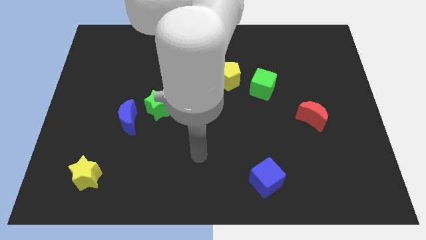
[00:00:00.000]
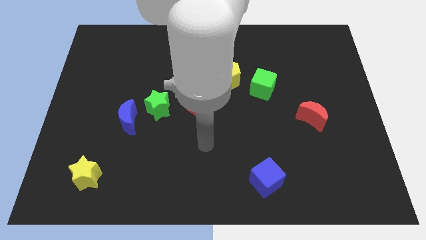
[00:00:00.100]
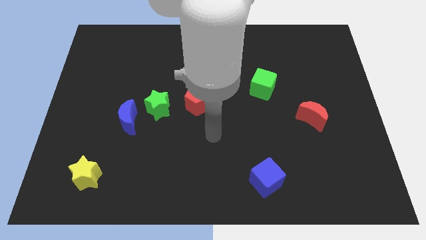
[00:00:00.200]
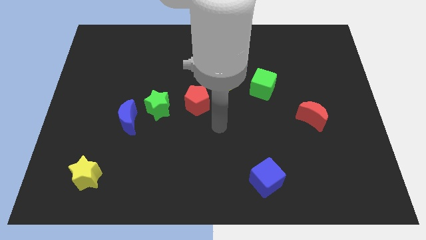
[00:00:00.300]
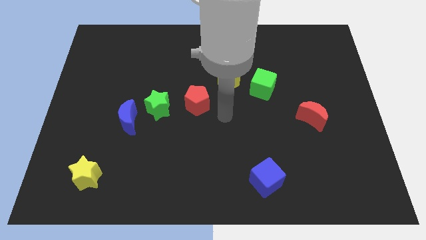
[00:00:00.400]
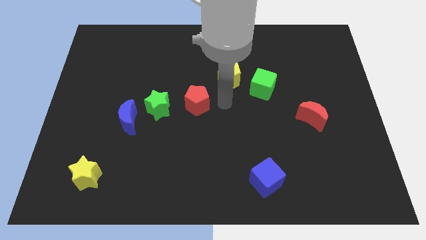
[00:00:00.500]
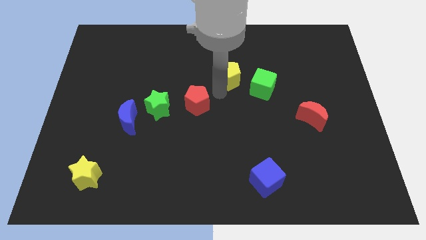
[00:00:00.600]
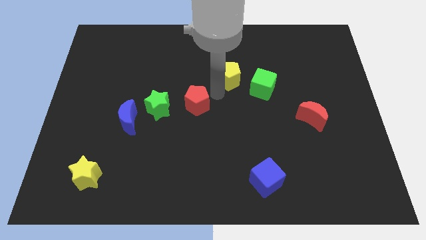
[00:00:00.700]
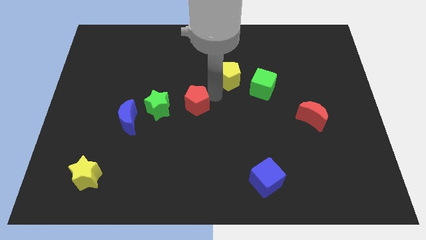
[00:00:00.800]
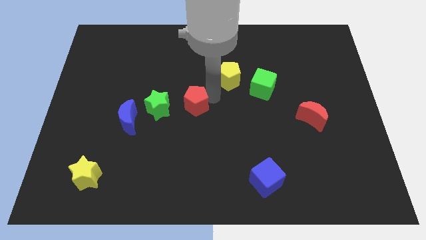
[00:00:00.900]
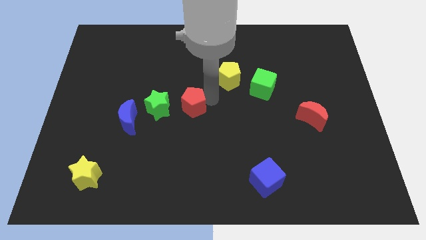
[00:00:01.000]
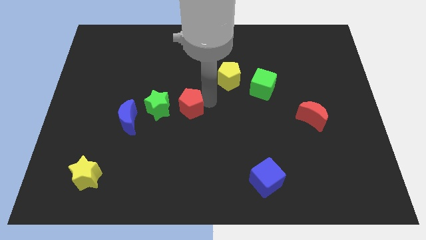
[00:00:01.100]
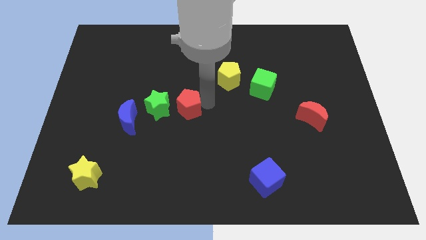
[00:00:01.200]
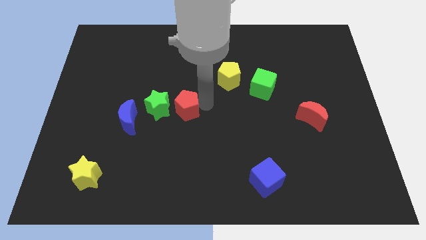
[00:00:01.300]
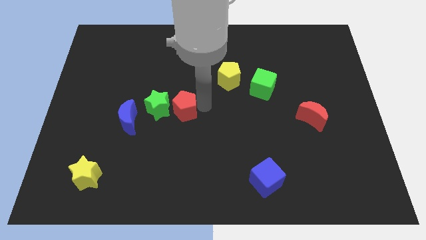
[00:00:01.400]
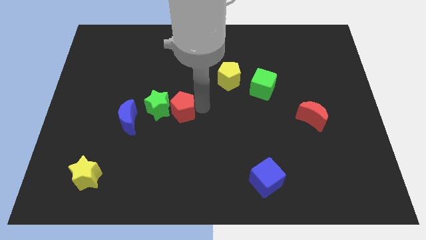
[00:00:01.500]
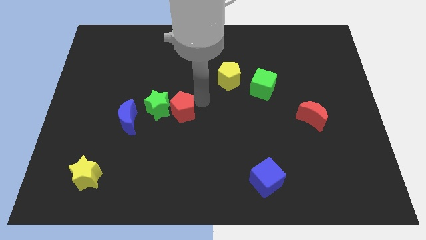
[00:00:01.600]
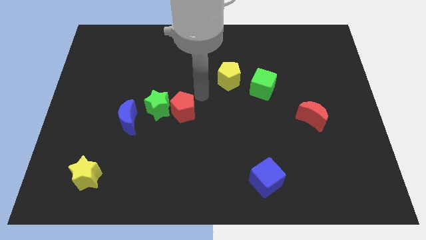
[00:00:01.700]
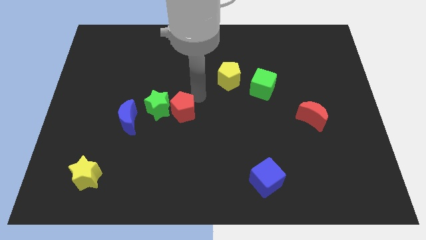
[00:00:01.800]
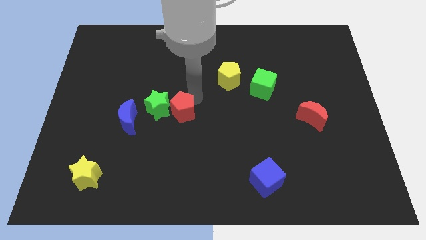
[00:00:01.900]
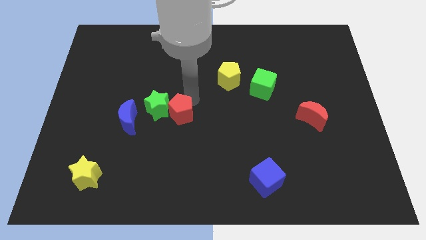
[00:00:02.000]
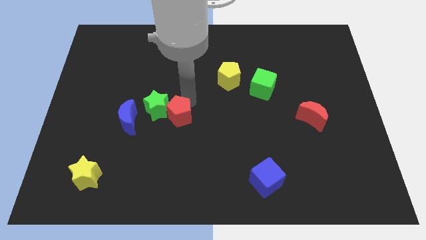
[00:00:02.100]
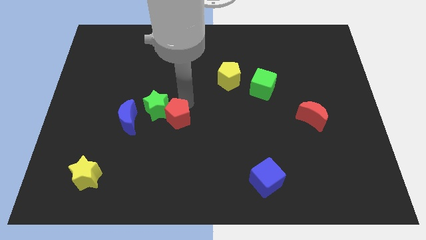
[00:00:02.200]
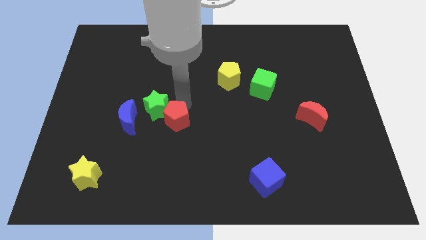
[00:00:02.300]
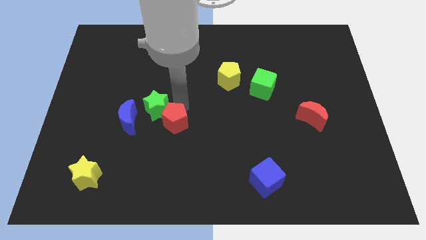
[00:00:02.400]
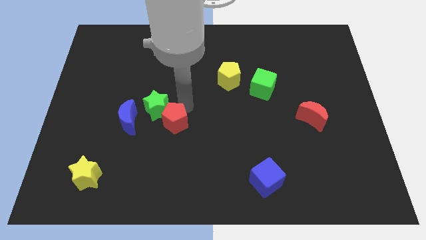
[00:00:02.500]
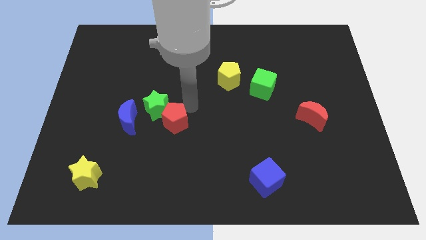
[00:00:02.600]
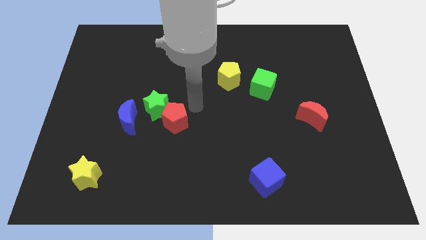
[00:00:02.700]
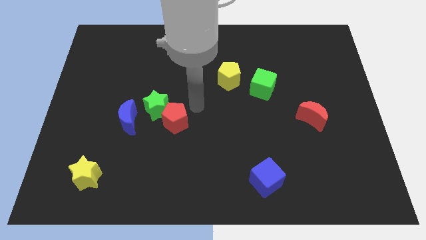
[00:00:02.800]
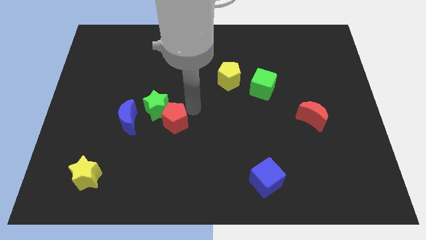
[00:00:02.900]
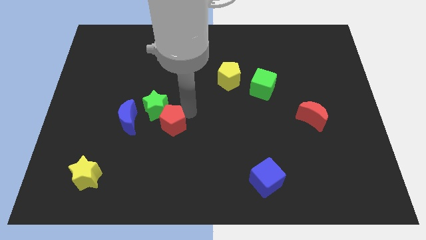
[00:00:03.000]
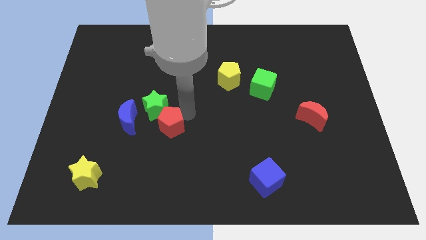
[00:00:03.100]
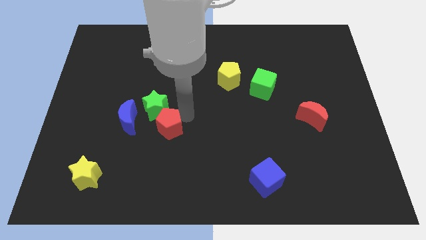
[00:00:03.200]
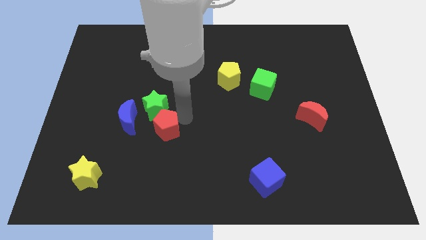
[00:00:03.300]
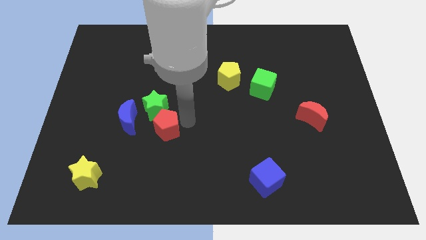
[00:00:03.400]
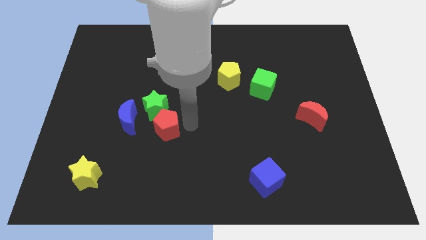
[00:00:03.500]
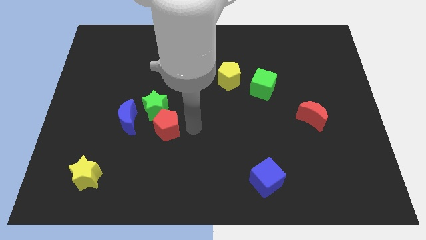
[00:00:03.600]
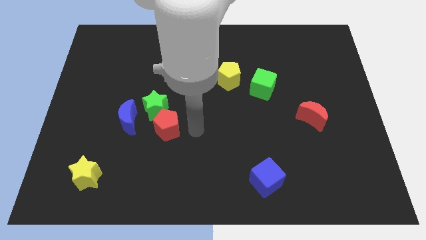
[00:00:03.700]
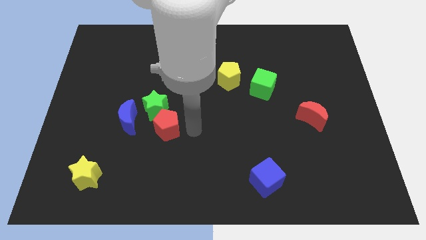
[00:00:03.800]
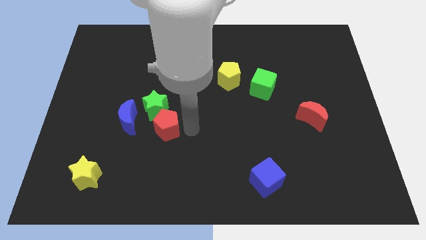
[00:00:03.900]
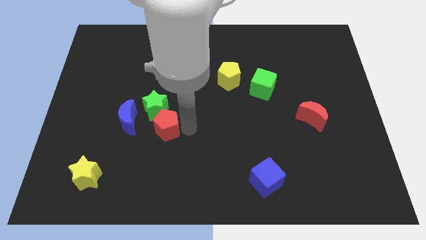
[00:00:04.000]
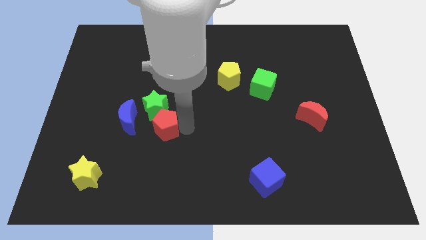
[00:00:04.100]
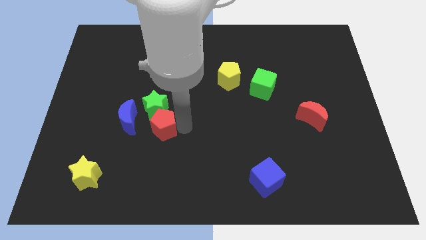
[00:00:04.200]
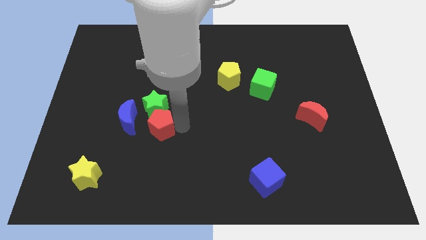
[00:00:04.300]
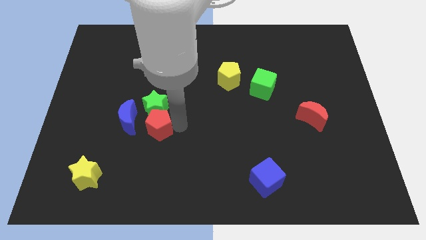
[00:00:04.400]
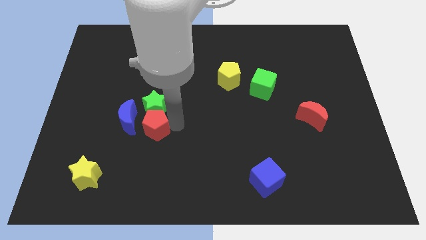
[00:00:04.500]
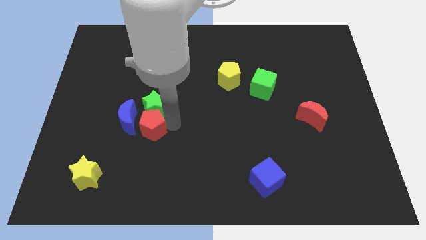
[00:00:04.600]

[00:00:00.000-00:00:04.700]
put the red pentagon to the blue moon

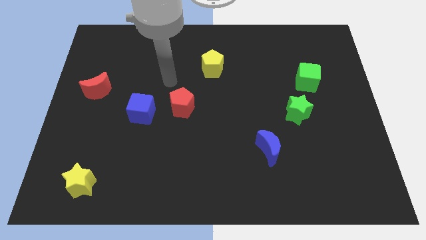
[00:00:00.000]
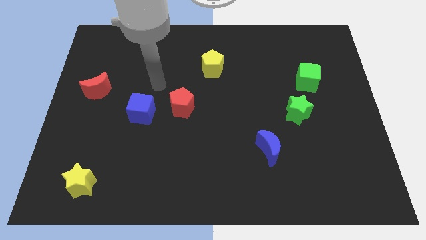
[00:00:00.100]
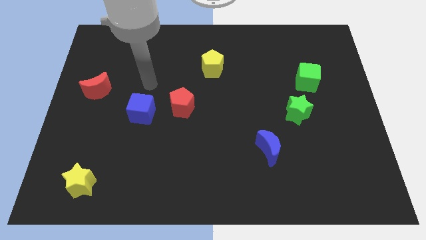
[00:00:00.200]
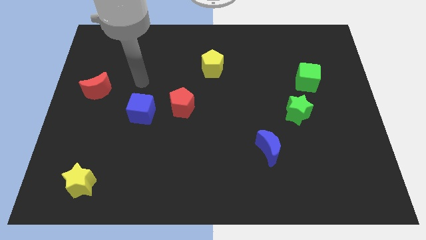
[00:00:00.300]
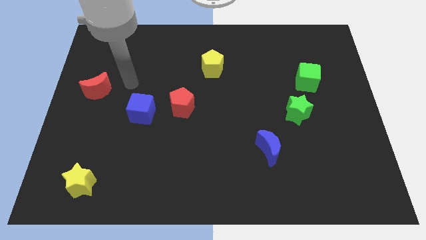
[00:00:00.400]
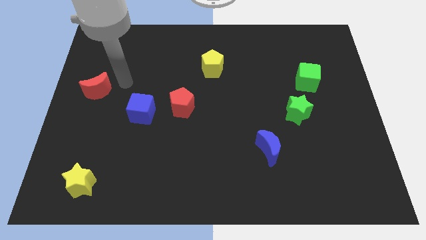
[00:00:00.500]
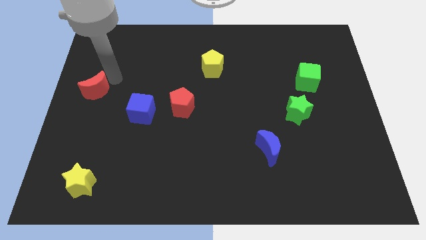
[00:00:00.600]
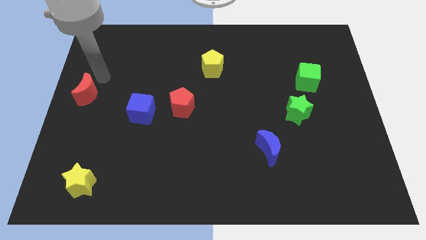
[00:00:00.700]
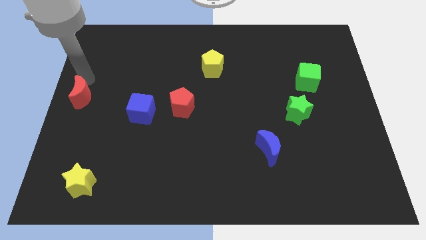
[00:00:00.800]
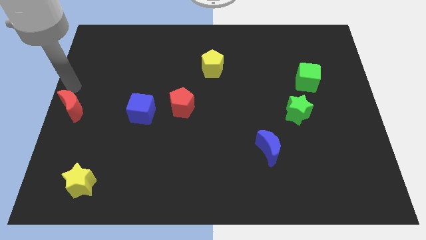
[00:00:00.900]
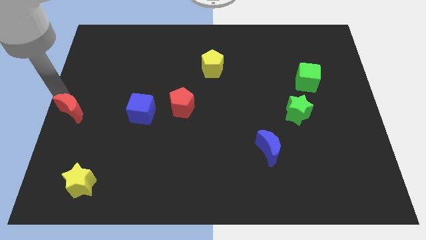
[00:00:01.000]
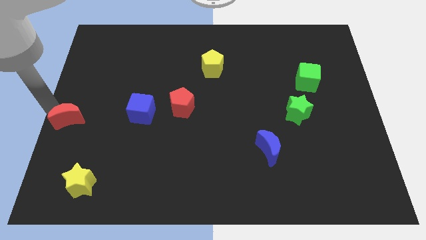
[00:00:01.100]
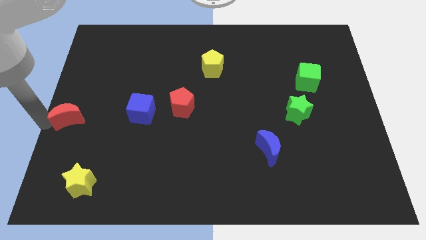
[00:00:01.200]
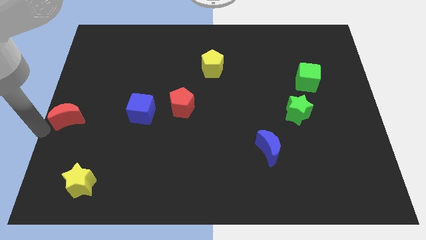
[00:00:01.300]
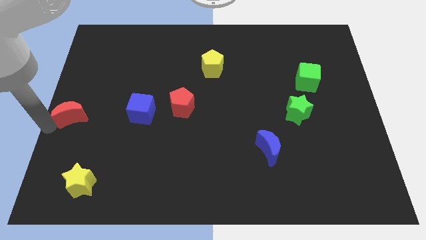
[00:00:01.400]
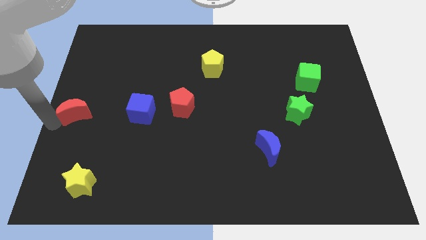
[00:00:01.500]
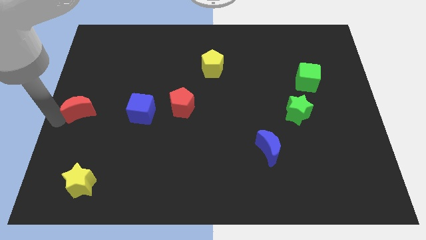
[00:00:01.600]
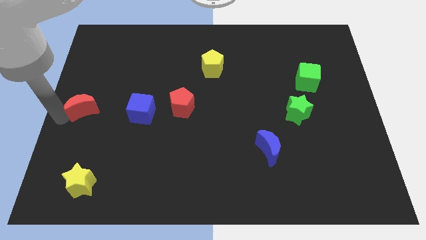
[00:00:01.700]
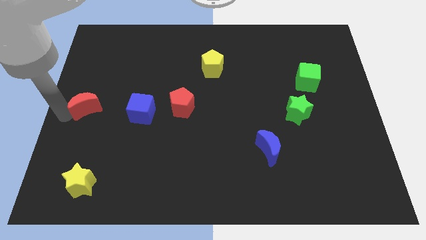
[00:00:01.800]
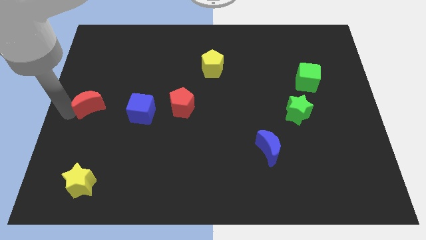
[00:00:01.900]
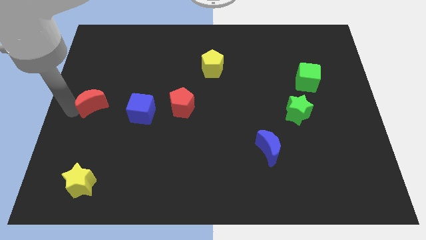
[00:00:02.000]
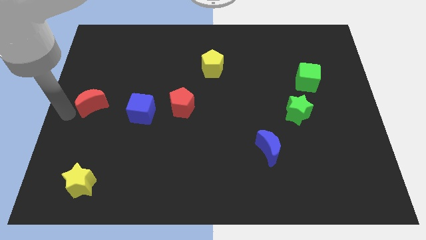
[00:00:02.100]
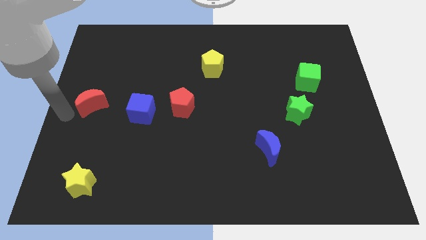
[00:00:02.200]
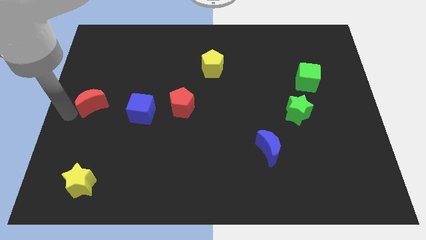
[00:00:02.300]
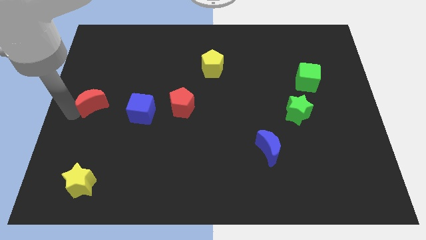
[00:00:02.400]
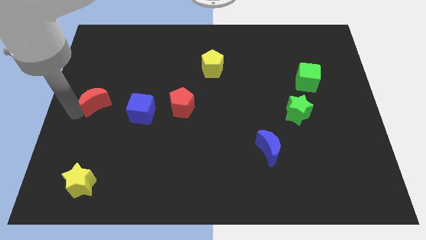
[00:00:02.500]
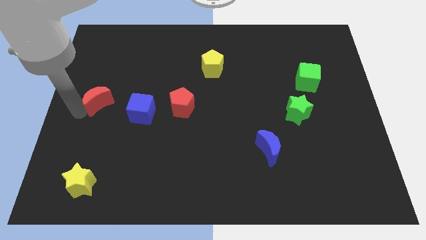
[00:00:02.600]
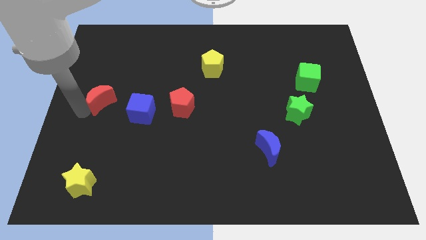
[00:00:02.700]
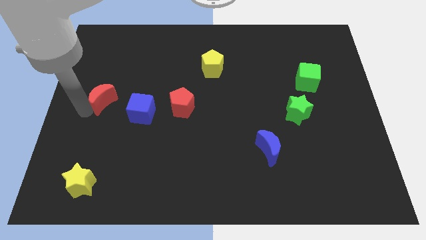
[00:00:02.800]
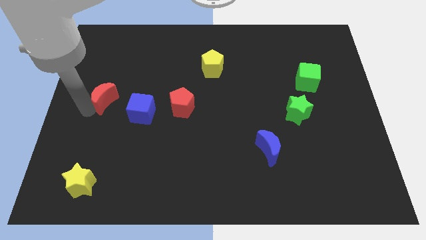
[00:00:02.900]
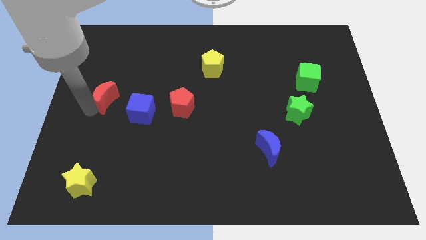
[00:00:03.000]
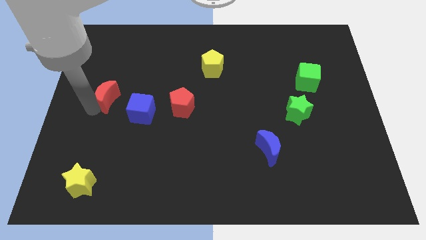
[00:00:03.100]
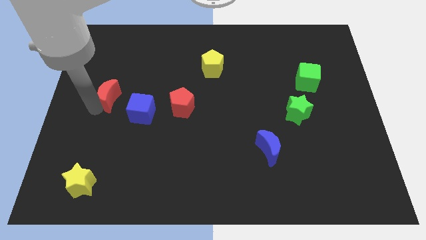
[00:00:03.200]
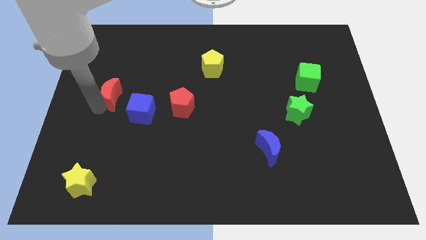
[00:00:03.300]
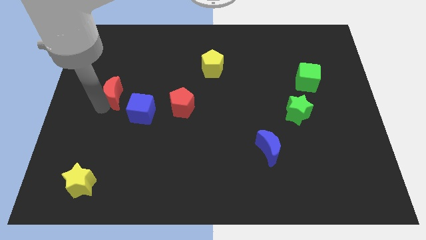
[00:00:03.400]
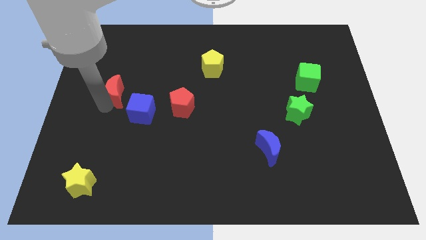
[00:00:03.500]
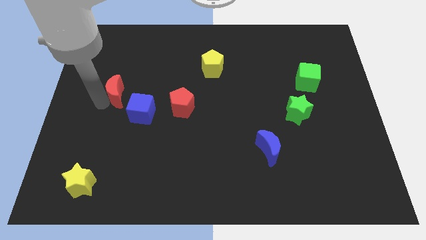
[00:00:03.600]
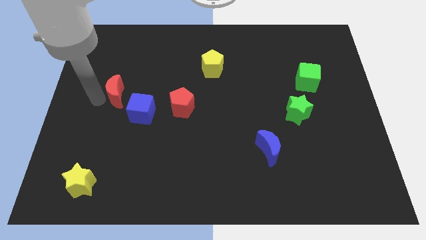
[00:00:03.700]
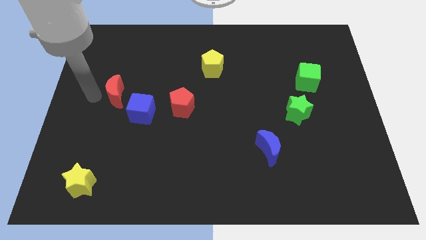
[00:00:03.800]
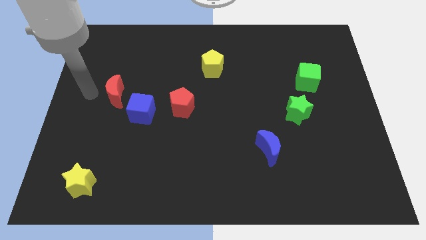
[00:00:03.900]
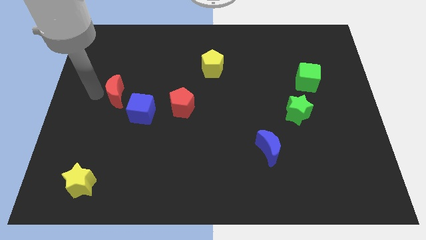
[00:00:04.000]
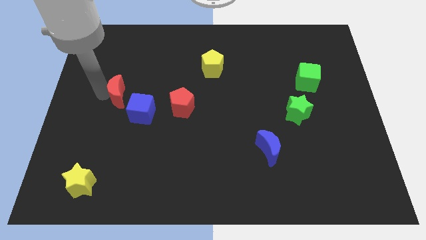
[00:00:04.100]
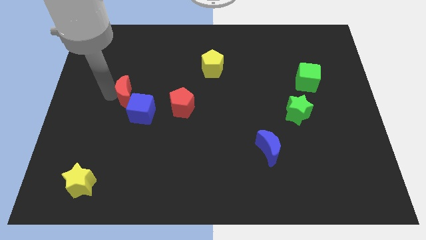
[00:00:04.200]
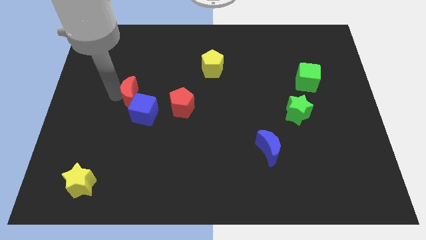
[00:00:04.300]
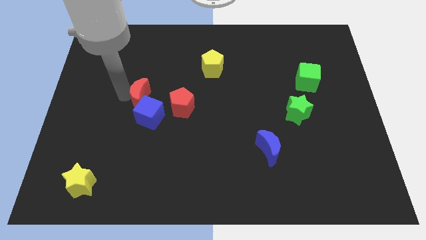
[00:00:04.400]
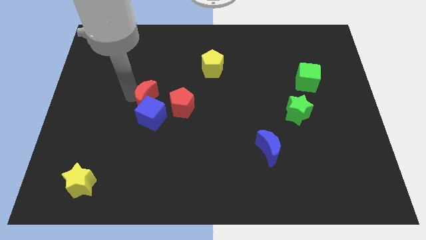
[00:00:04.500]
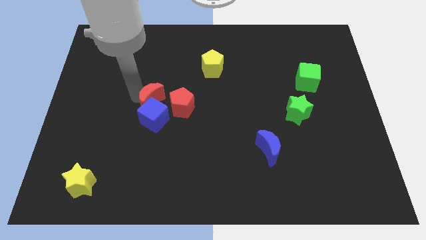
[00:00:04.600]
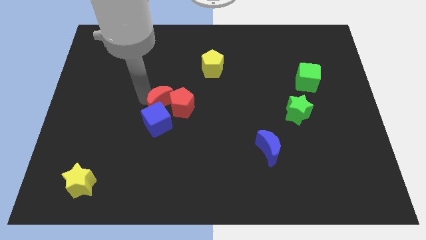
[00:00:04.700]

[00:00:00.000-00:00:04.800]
put the red moon next to the red pentagon
